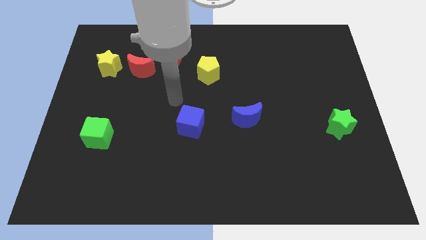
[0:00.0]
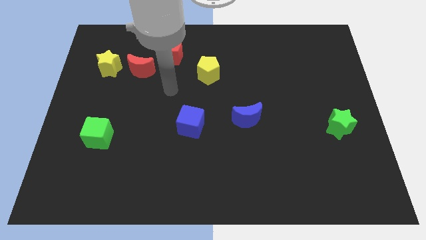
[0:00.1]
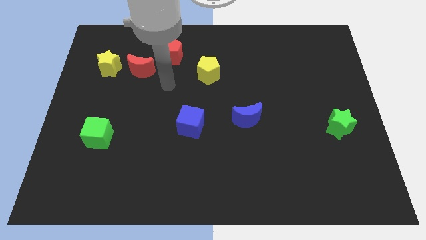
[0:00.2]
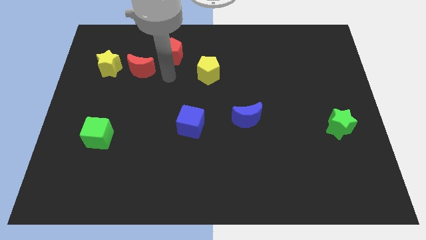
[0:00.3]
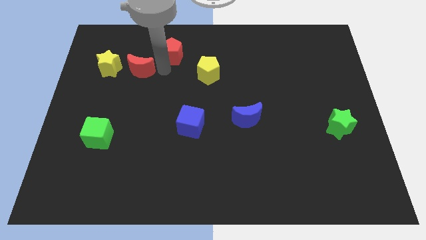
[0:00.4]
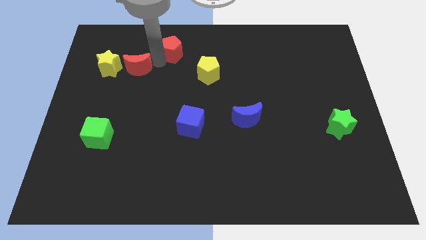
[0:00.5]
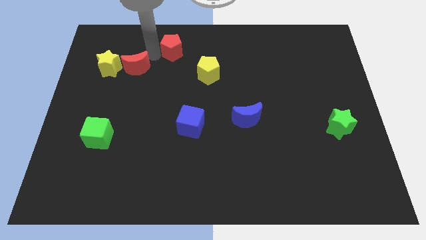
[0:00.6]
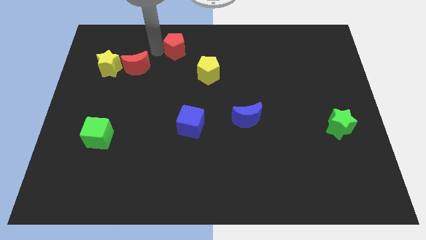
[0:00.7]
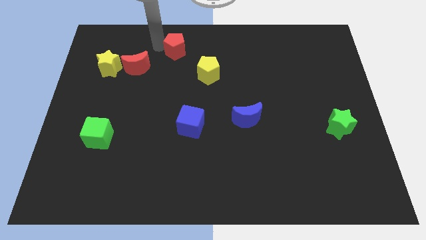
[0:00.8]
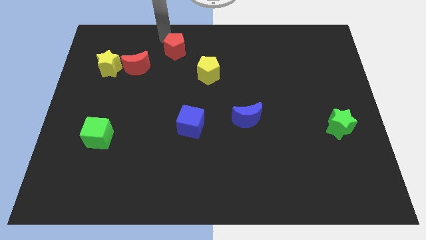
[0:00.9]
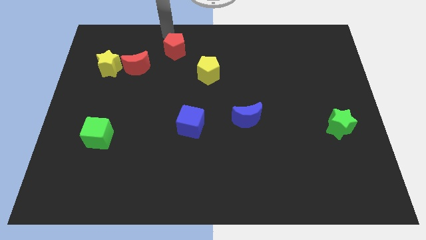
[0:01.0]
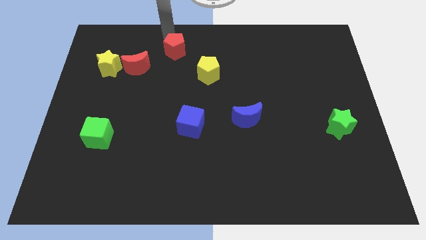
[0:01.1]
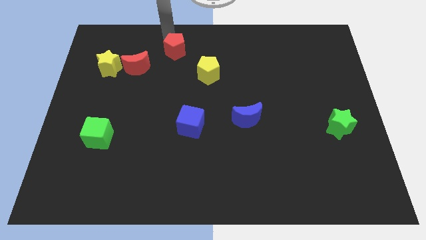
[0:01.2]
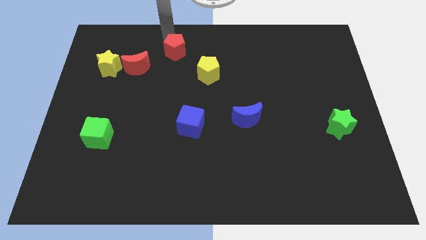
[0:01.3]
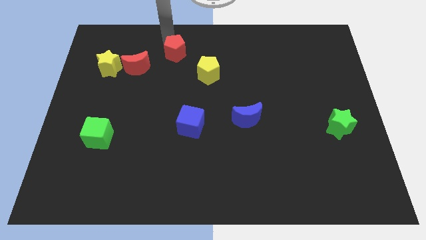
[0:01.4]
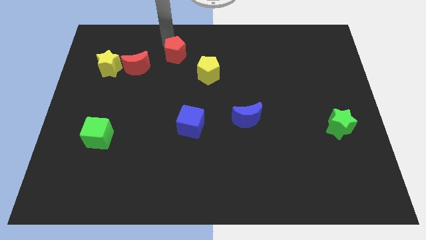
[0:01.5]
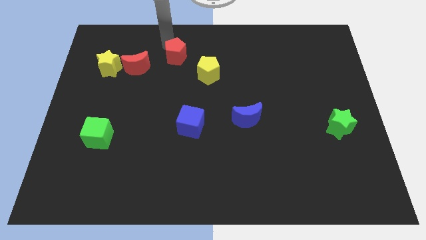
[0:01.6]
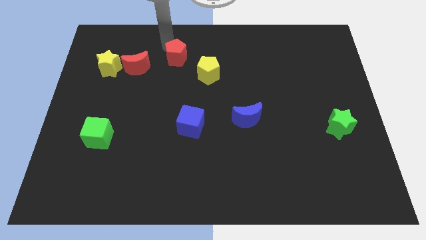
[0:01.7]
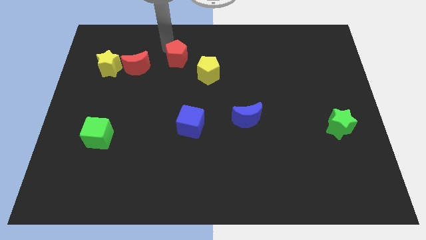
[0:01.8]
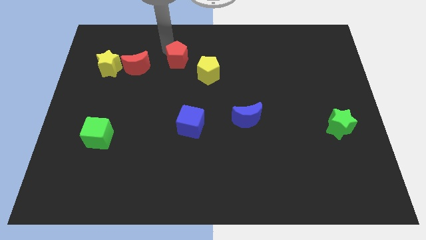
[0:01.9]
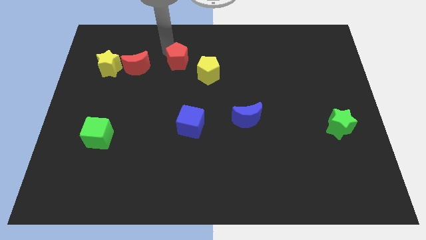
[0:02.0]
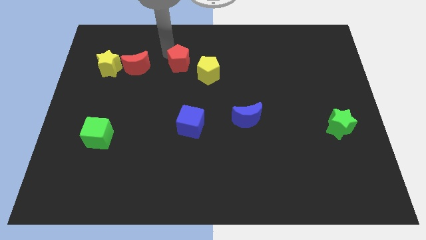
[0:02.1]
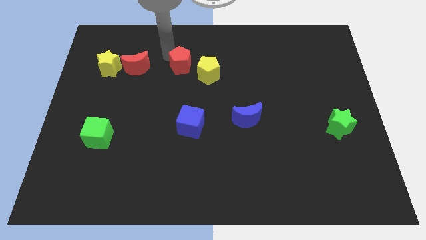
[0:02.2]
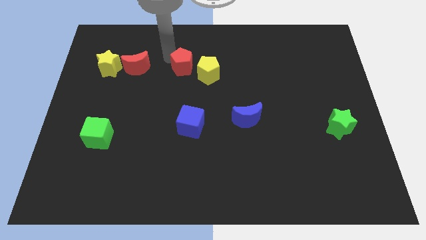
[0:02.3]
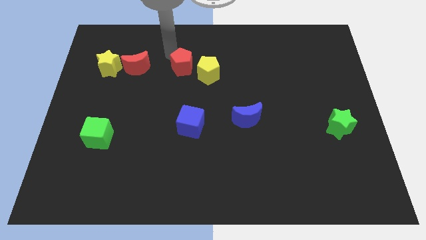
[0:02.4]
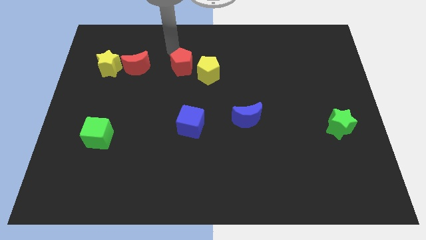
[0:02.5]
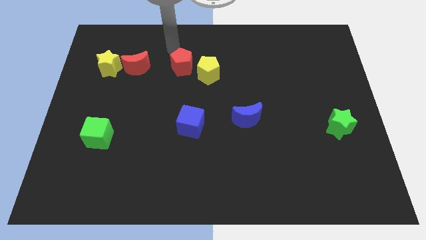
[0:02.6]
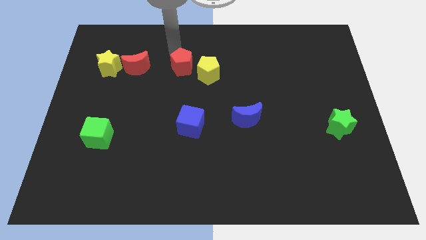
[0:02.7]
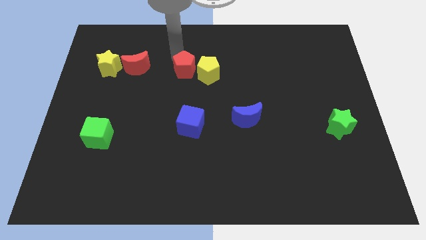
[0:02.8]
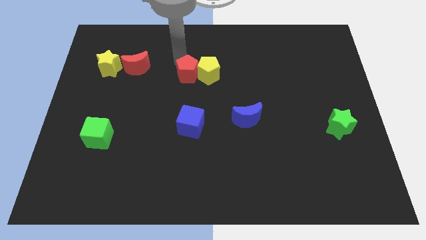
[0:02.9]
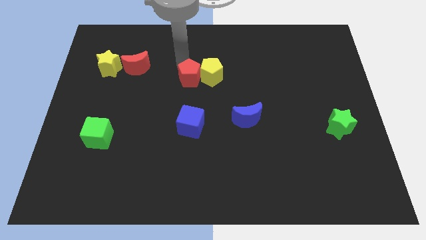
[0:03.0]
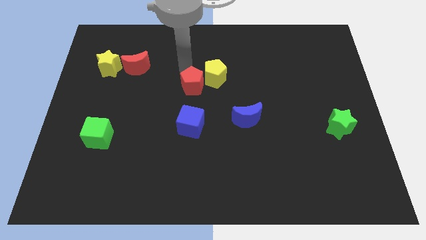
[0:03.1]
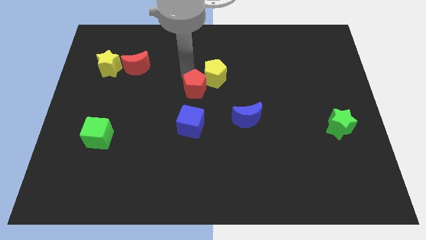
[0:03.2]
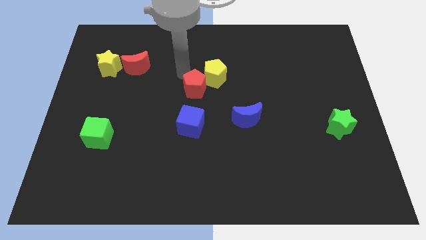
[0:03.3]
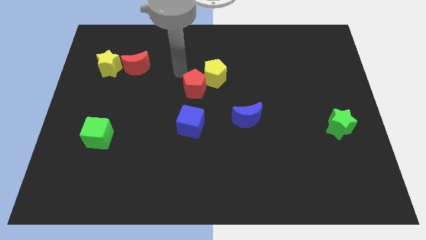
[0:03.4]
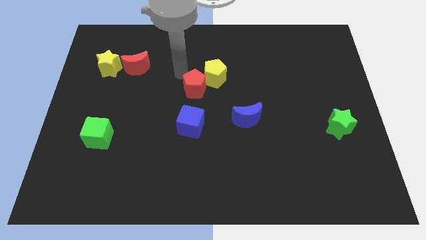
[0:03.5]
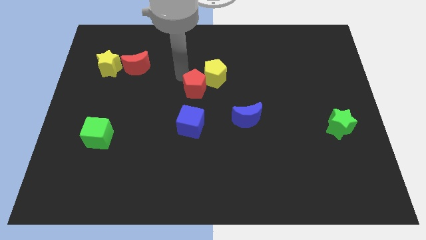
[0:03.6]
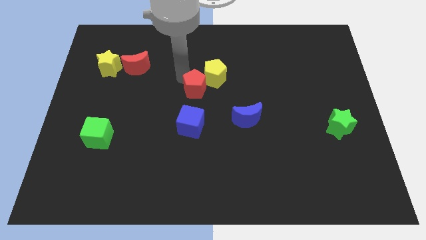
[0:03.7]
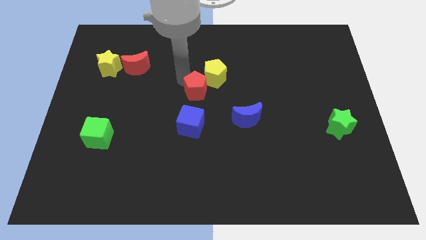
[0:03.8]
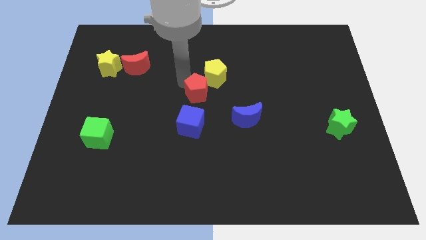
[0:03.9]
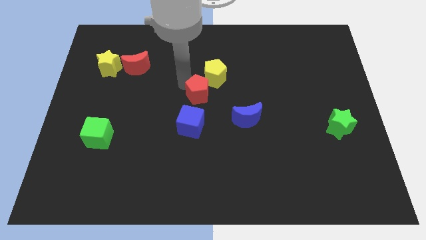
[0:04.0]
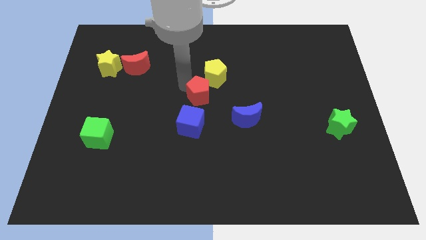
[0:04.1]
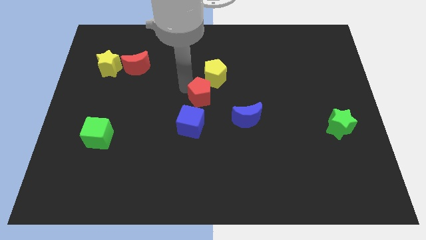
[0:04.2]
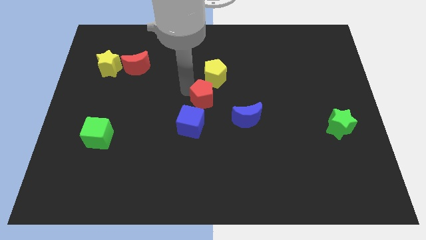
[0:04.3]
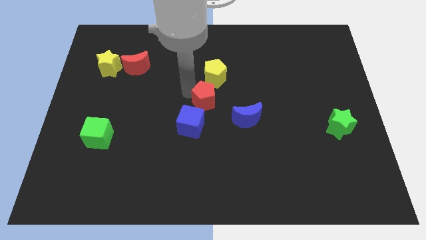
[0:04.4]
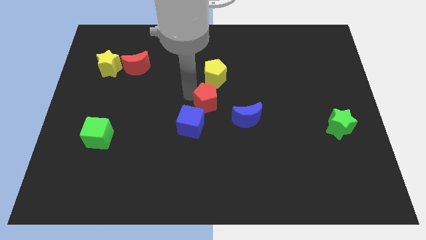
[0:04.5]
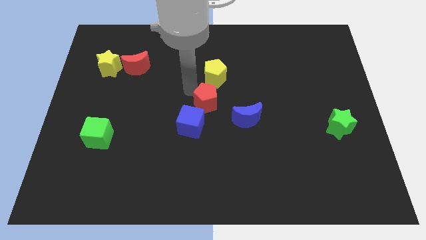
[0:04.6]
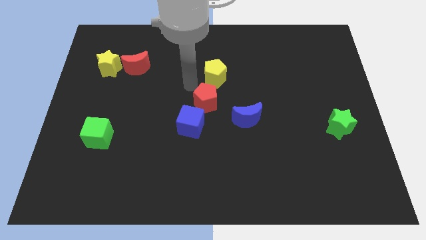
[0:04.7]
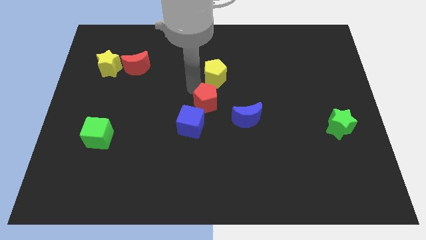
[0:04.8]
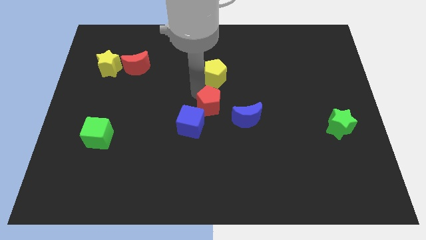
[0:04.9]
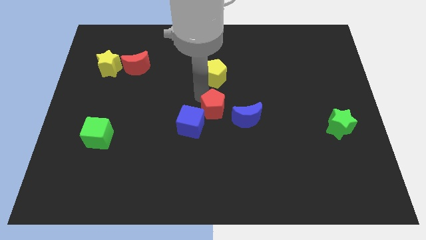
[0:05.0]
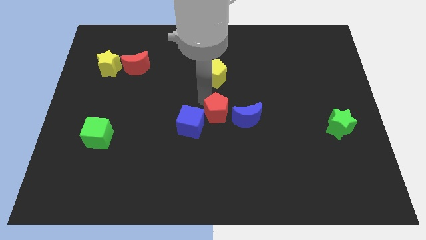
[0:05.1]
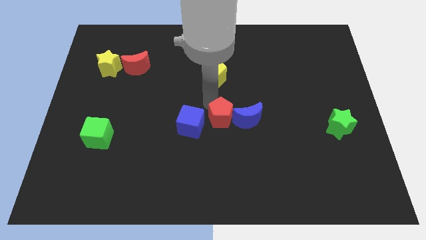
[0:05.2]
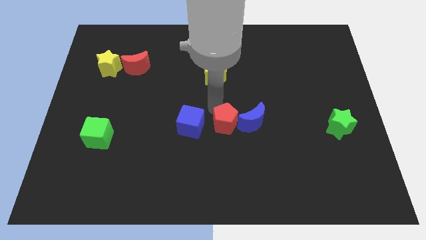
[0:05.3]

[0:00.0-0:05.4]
put the red pentagon to the bottom left of the blue moon
